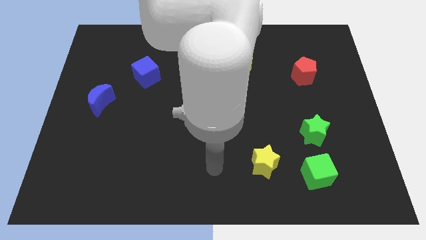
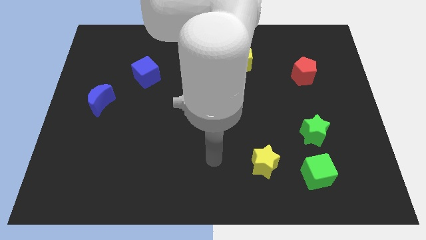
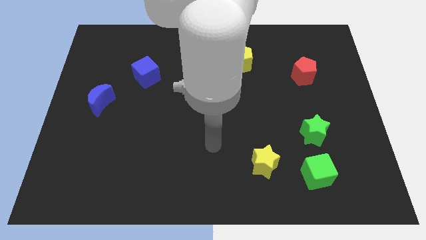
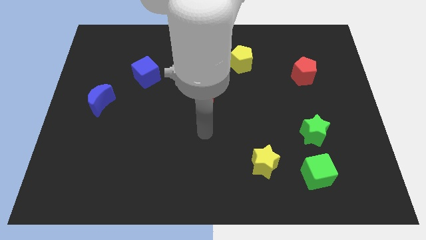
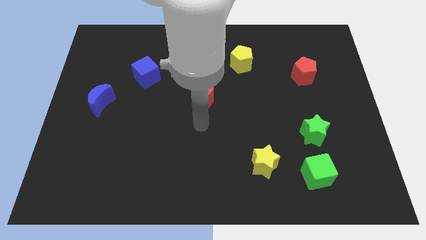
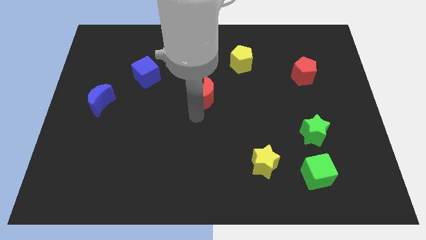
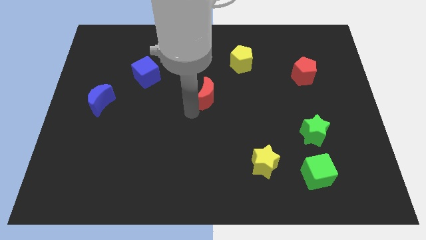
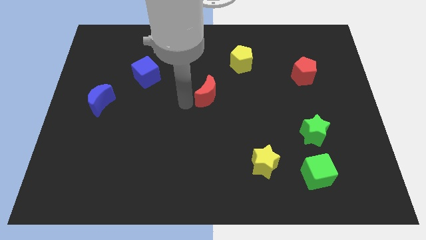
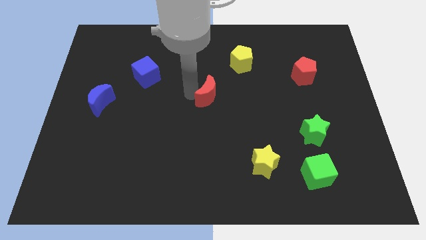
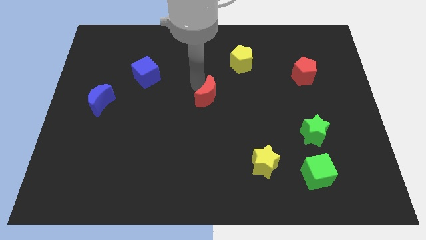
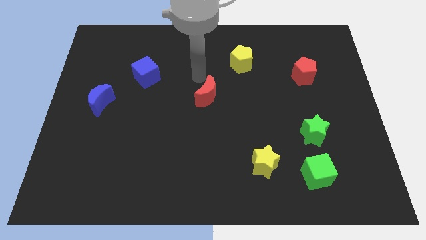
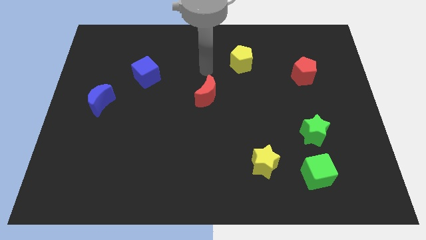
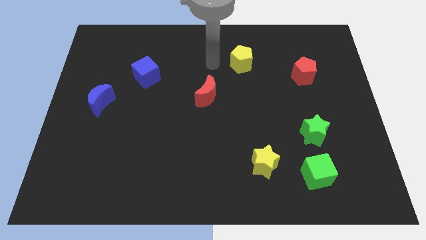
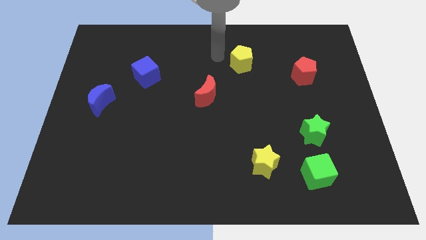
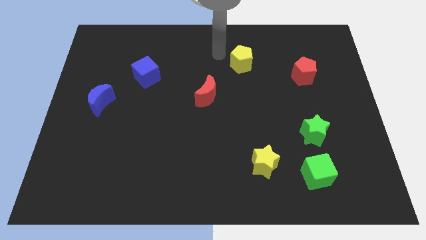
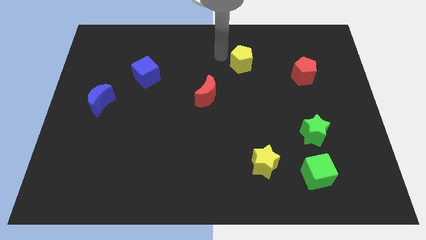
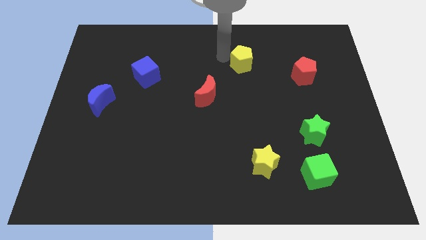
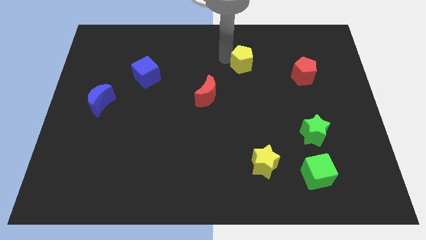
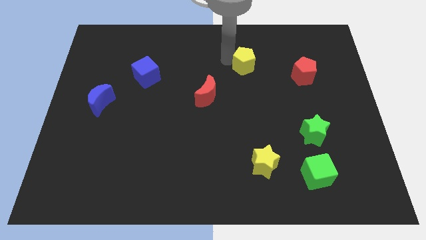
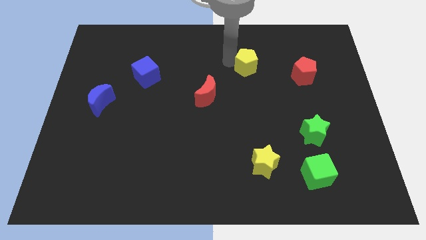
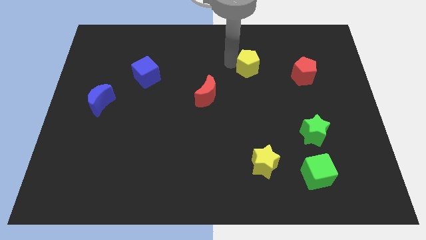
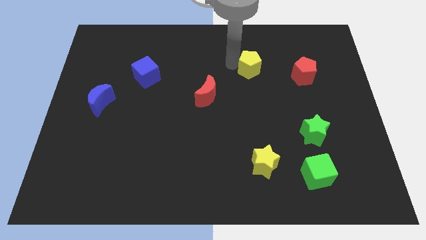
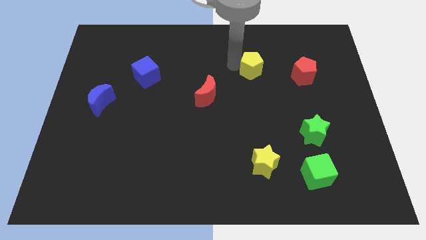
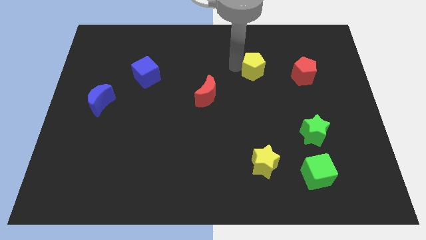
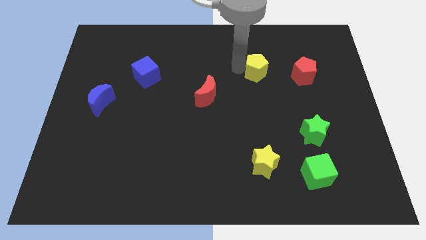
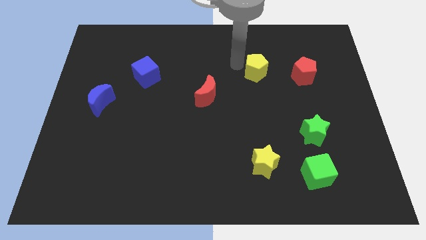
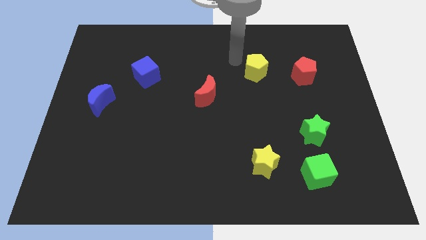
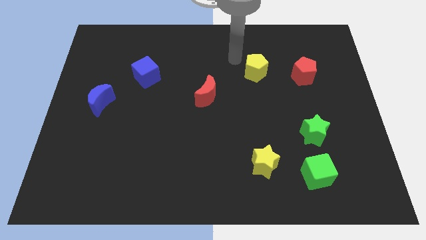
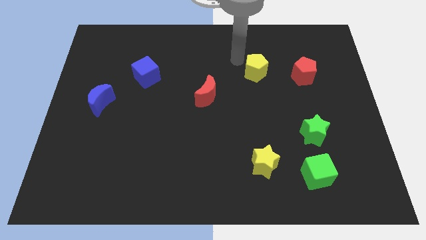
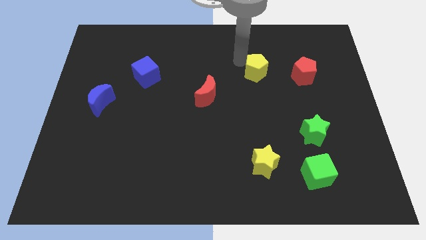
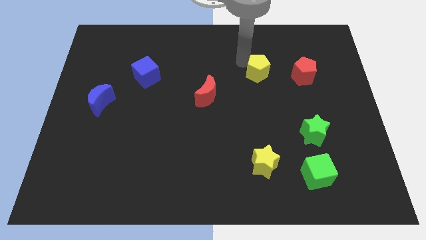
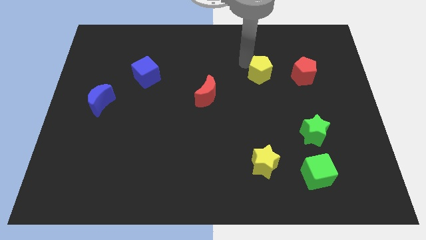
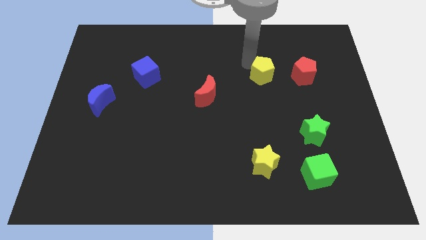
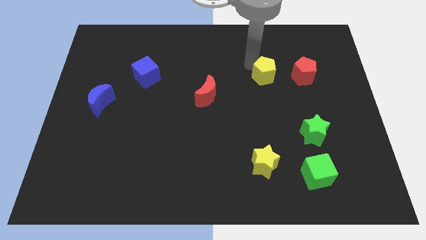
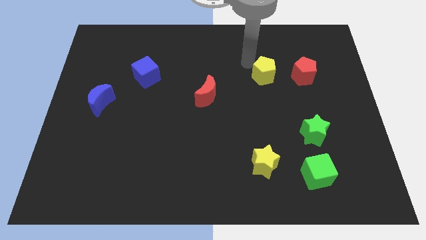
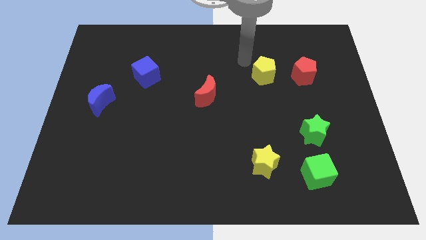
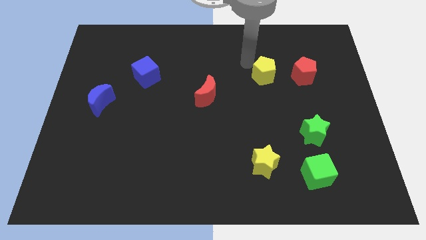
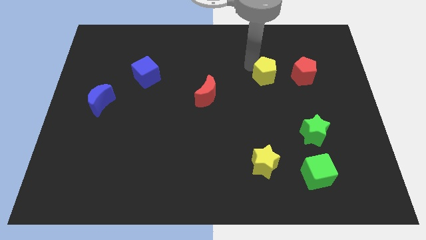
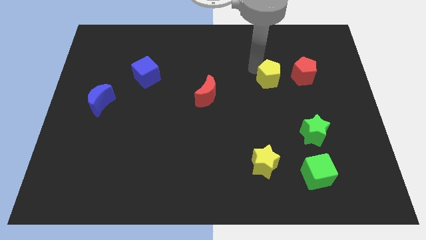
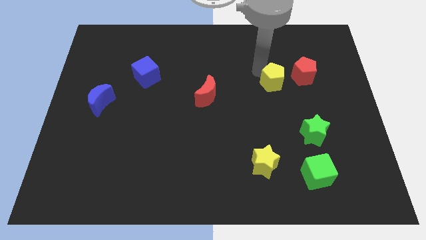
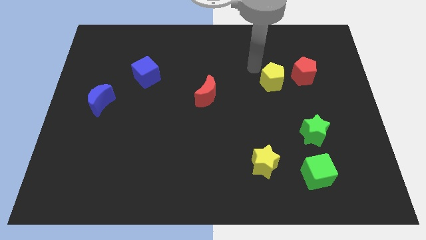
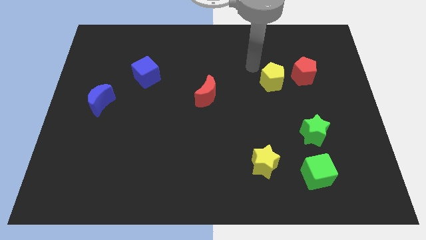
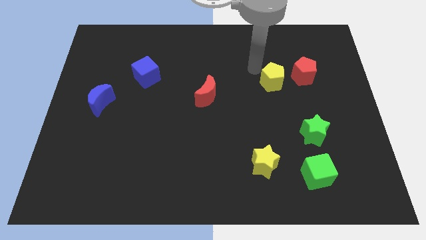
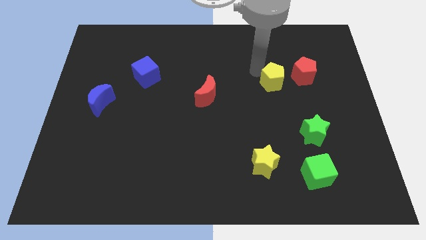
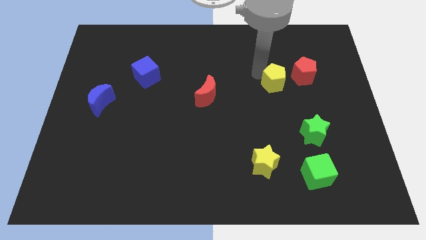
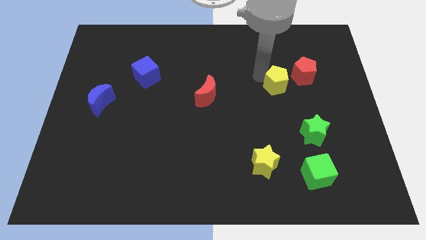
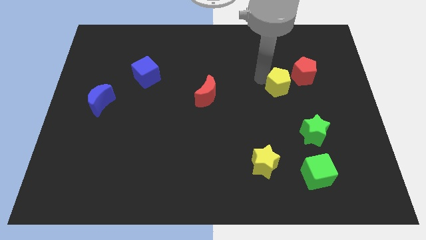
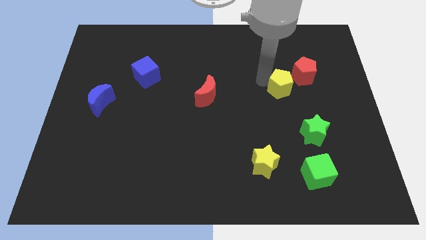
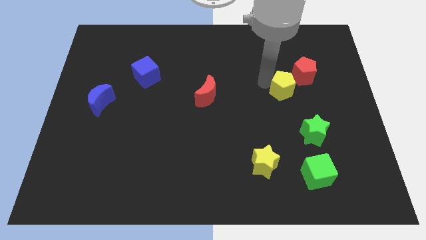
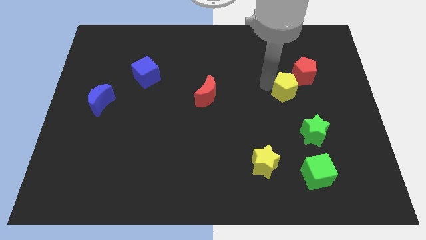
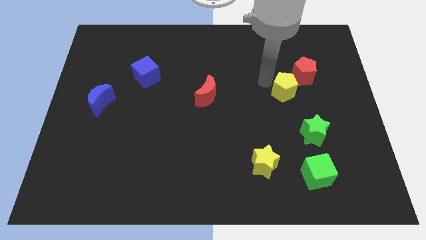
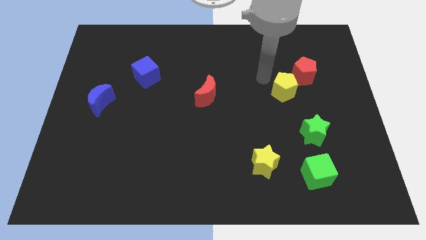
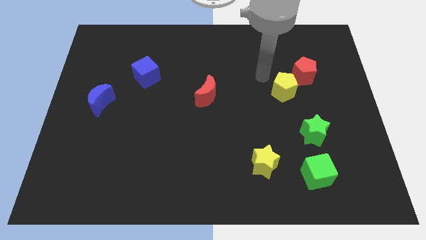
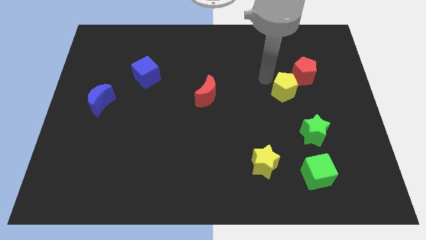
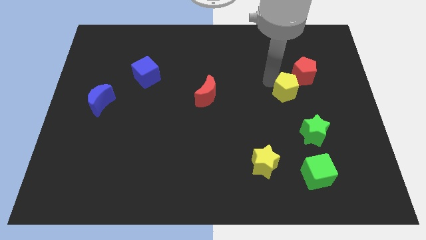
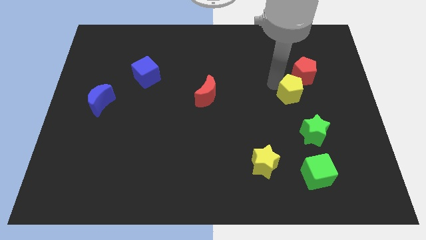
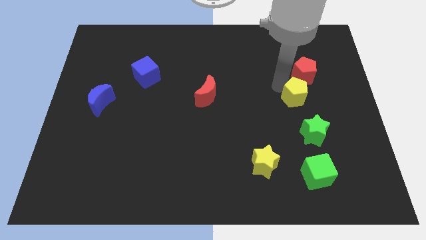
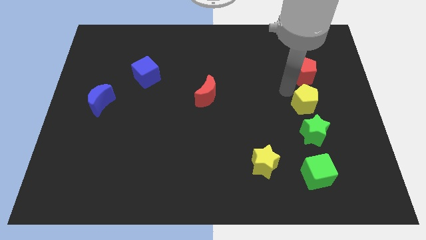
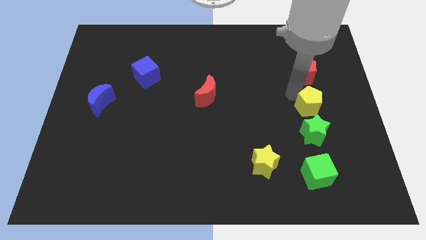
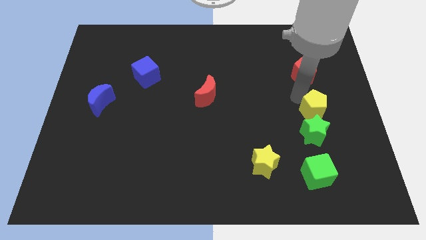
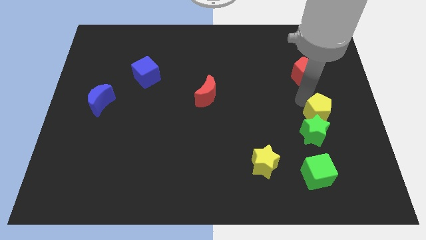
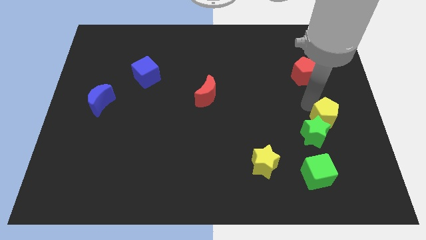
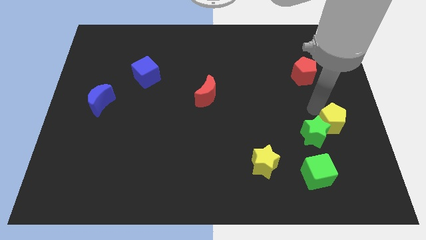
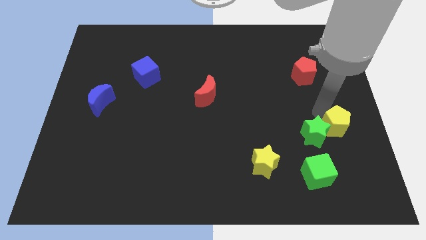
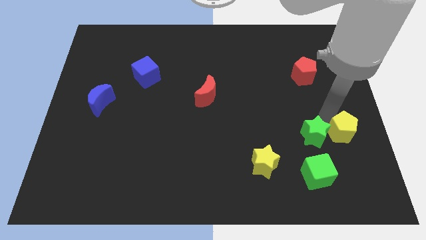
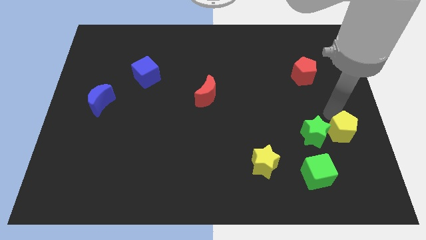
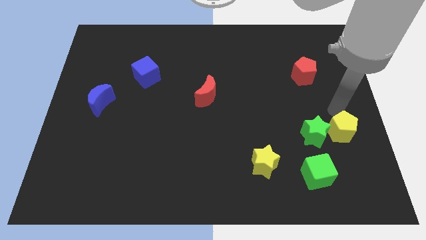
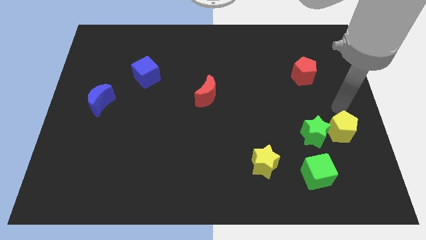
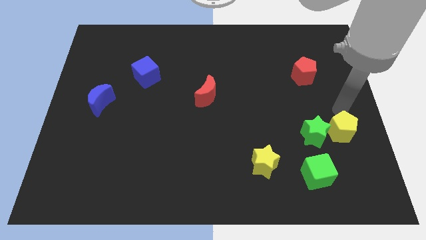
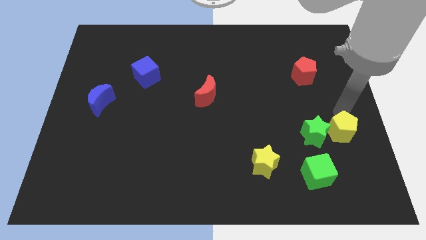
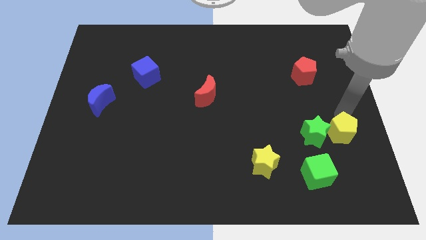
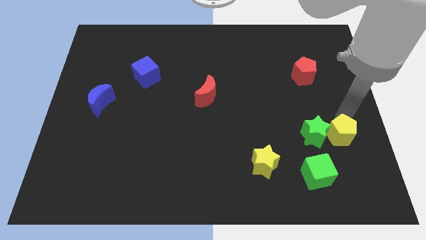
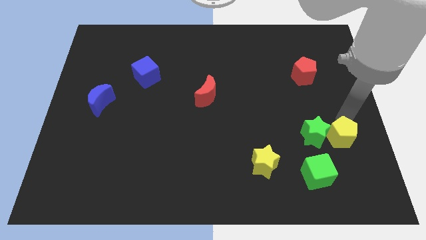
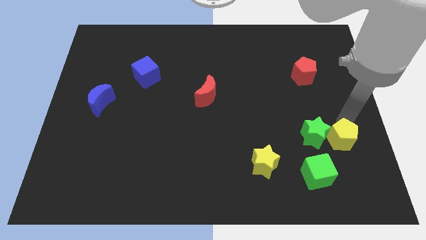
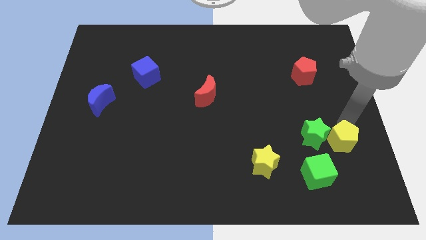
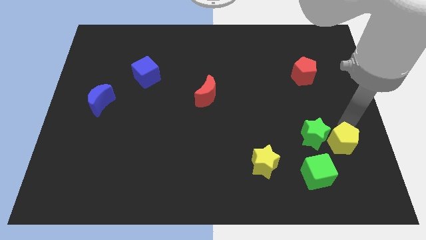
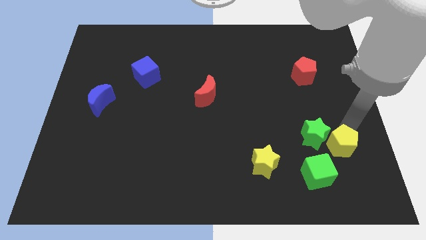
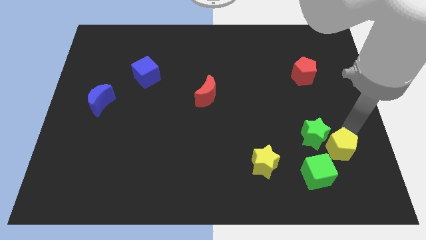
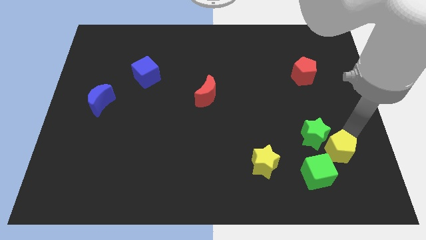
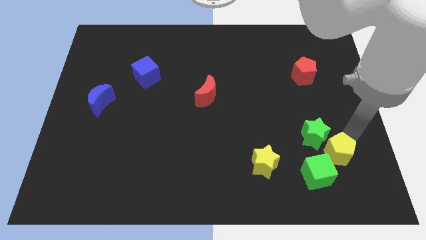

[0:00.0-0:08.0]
push the yellow pentagon to the bottom of the green star
